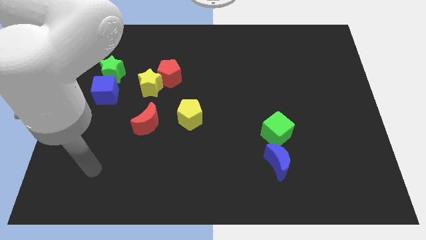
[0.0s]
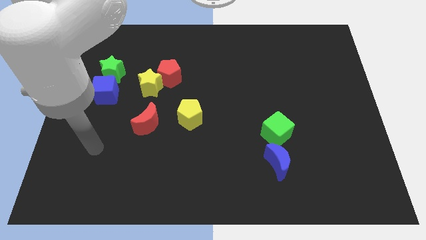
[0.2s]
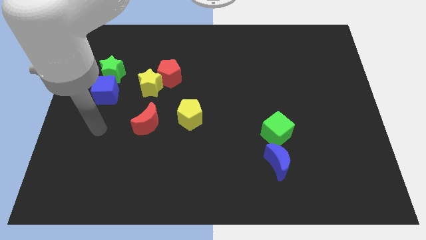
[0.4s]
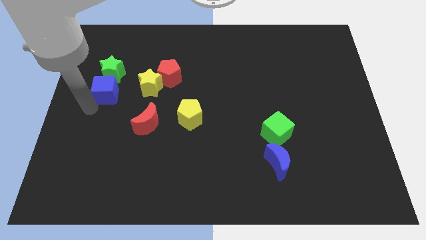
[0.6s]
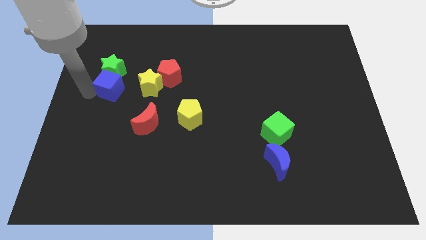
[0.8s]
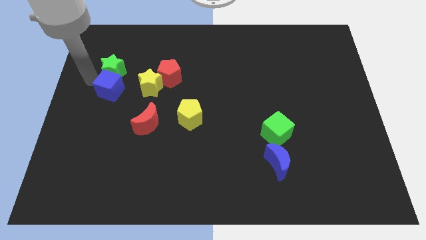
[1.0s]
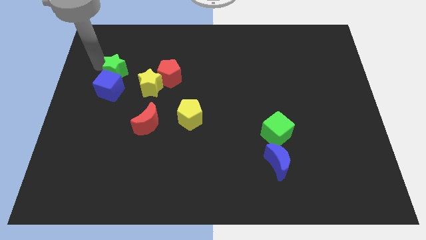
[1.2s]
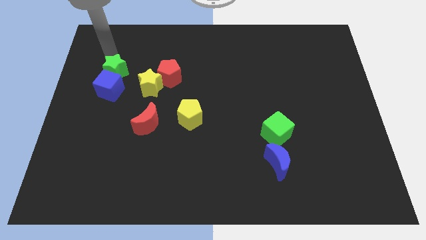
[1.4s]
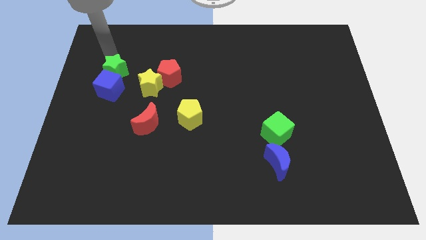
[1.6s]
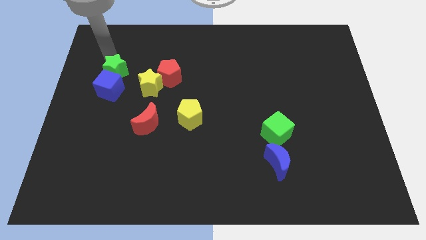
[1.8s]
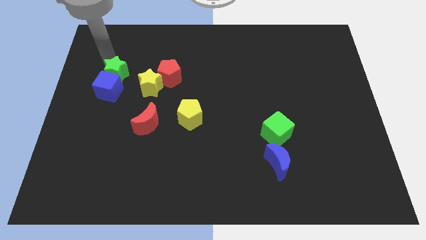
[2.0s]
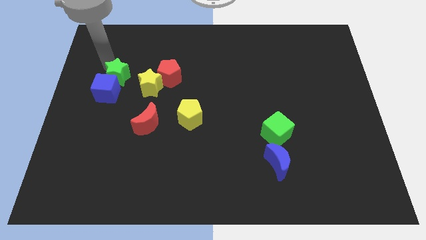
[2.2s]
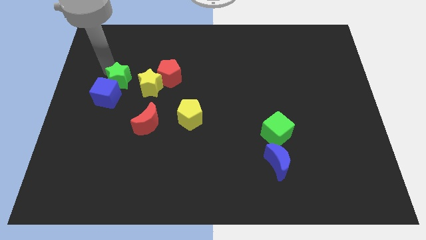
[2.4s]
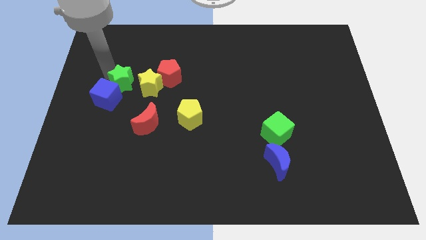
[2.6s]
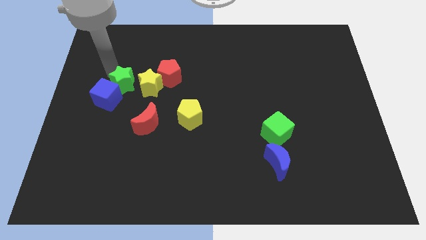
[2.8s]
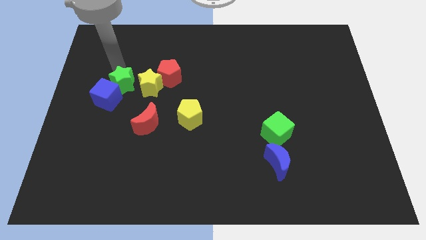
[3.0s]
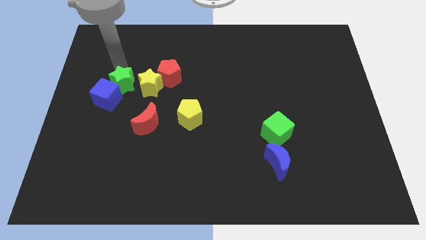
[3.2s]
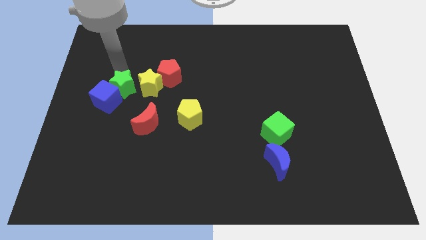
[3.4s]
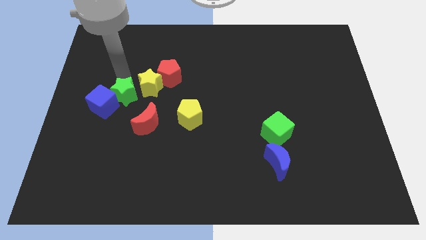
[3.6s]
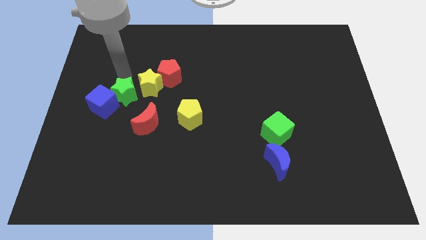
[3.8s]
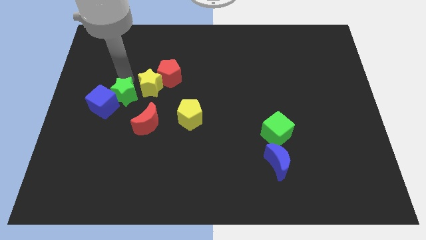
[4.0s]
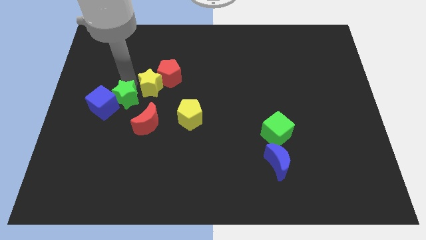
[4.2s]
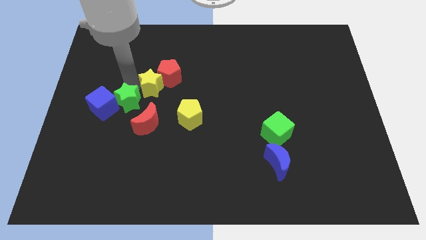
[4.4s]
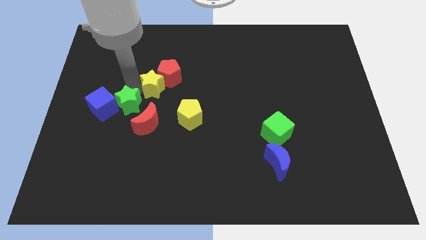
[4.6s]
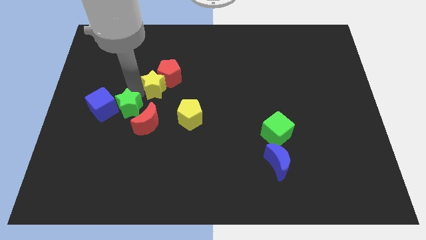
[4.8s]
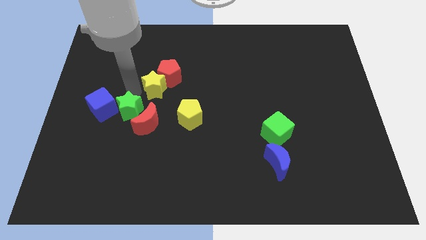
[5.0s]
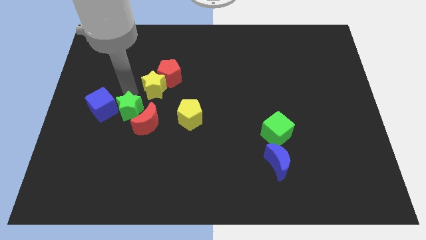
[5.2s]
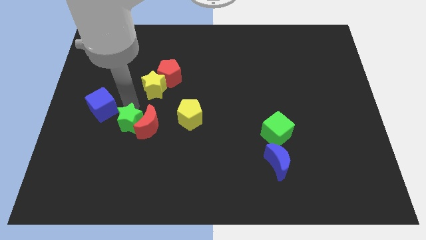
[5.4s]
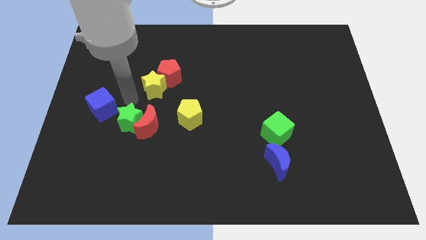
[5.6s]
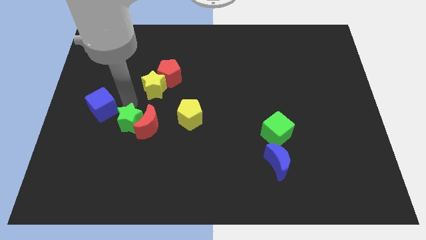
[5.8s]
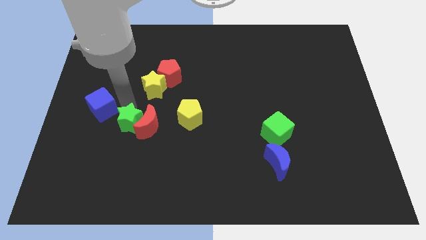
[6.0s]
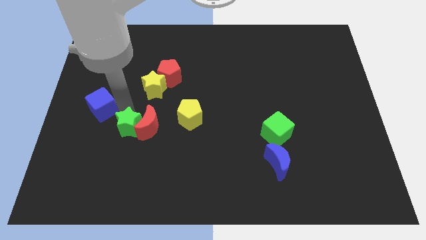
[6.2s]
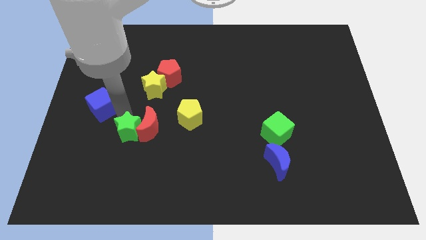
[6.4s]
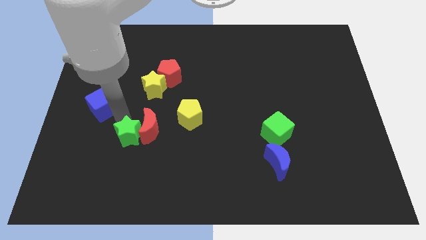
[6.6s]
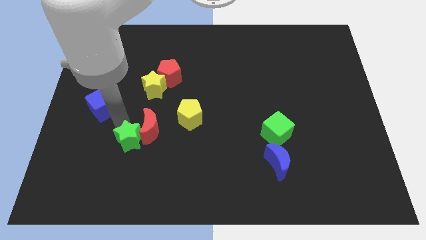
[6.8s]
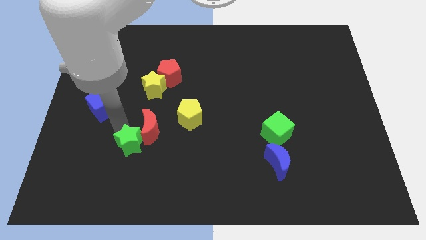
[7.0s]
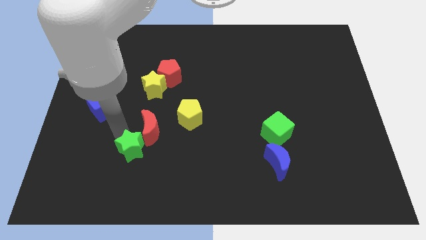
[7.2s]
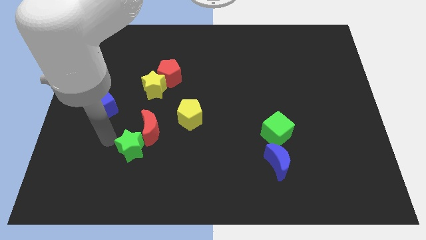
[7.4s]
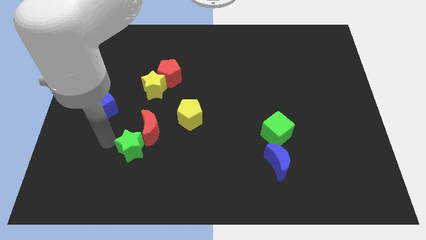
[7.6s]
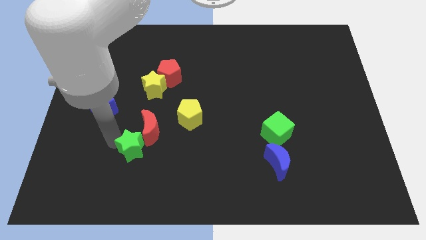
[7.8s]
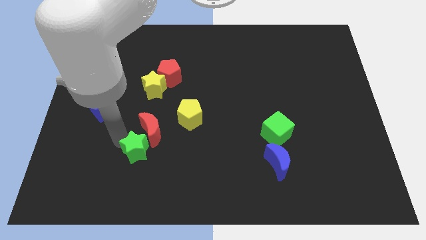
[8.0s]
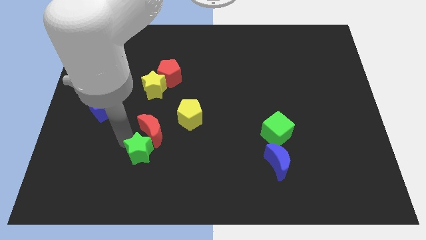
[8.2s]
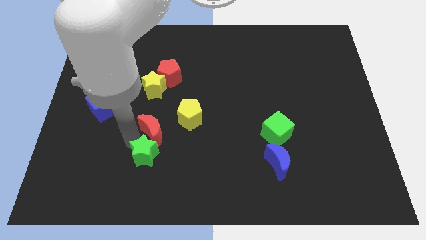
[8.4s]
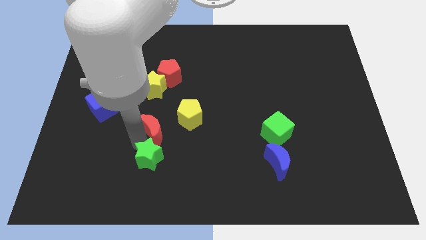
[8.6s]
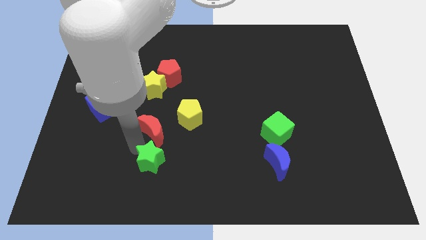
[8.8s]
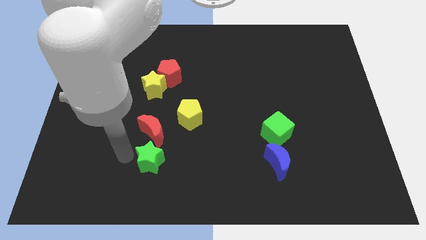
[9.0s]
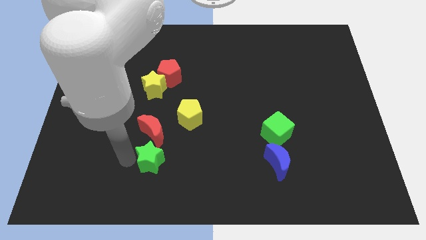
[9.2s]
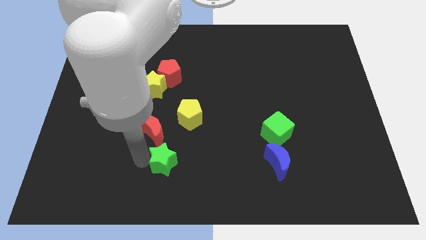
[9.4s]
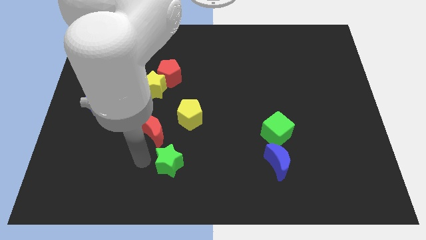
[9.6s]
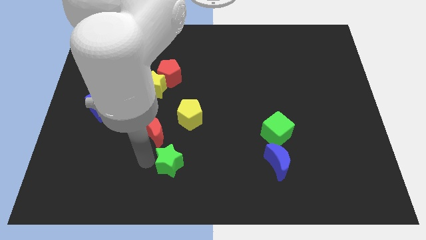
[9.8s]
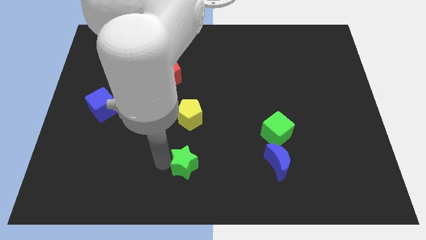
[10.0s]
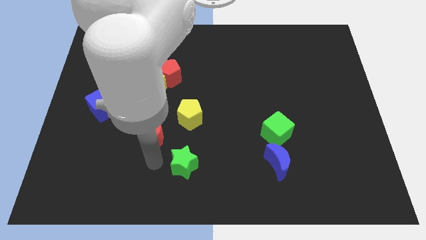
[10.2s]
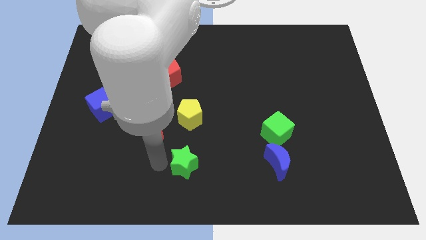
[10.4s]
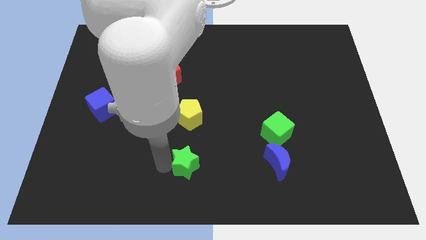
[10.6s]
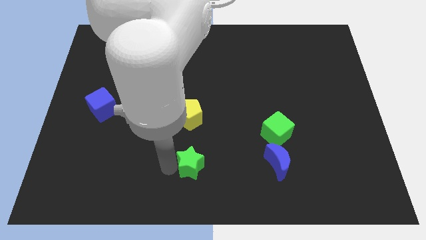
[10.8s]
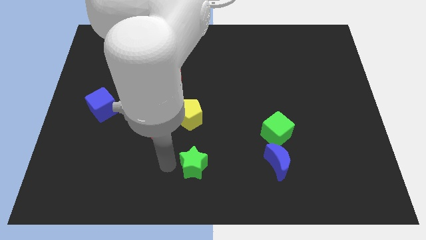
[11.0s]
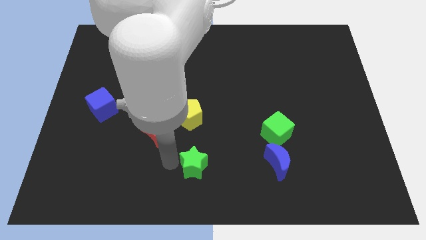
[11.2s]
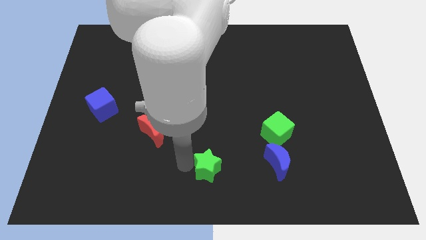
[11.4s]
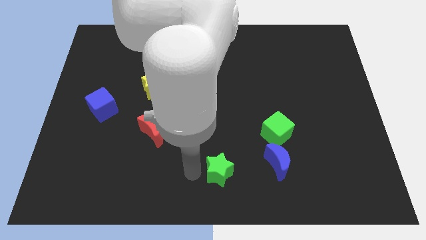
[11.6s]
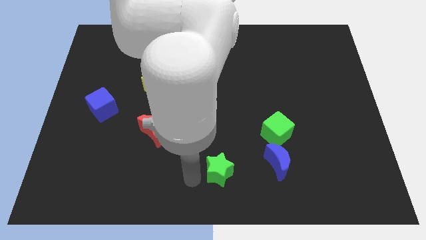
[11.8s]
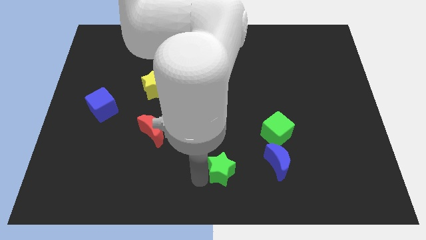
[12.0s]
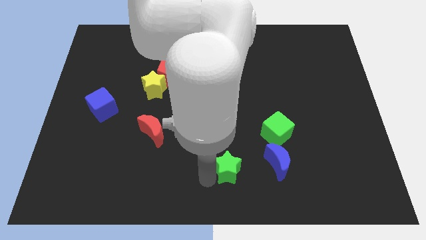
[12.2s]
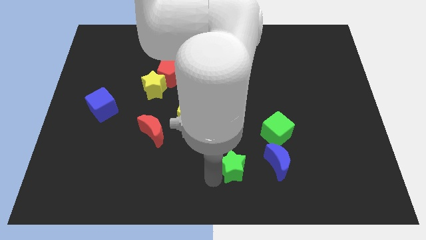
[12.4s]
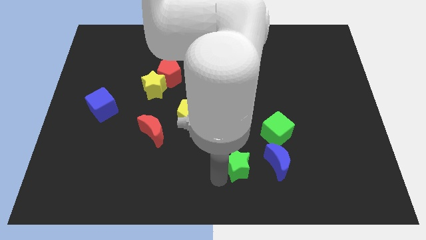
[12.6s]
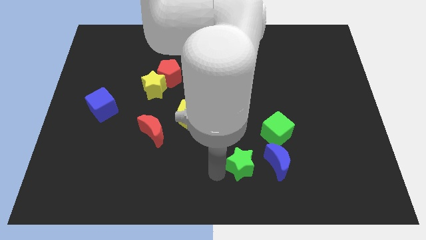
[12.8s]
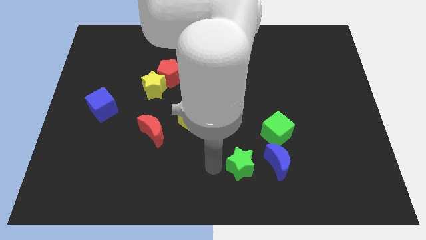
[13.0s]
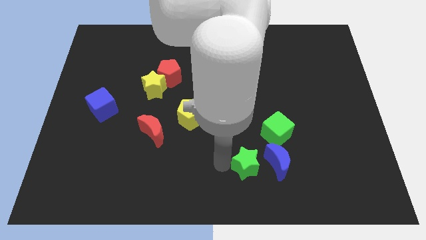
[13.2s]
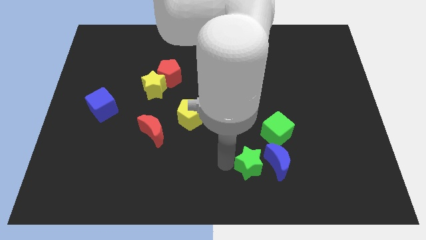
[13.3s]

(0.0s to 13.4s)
move the green star close to the blue moon

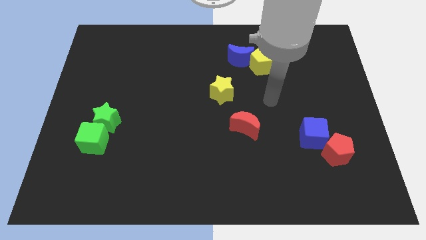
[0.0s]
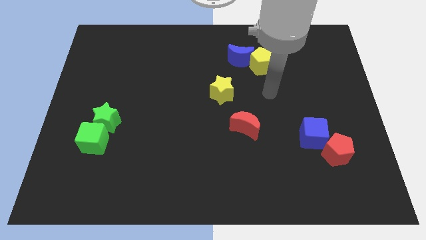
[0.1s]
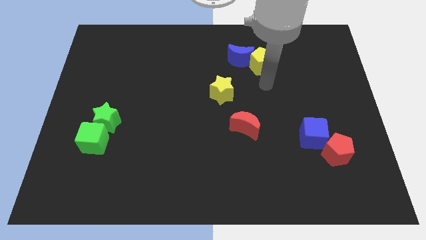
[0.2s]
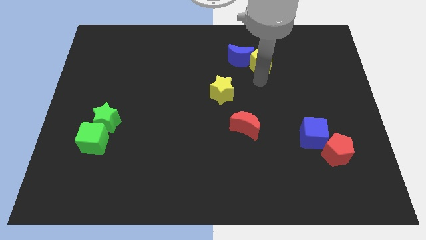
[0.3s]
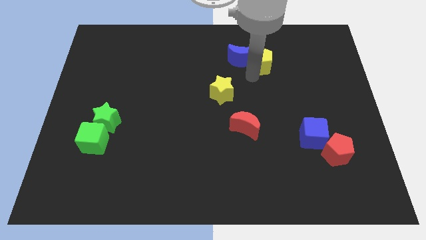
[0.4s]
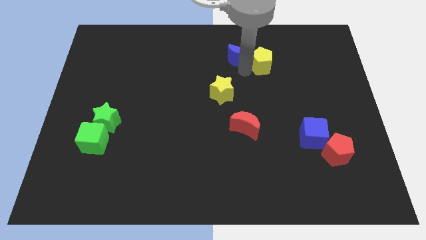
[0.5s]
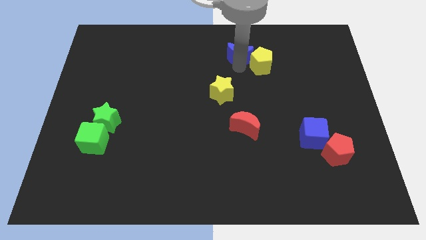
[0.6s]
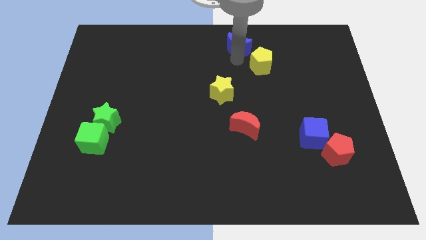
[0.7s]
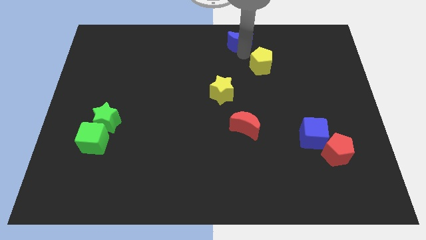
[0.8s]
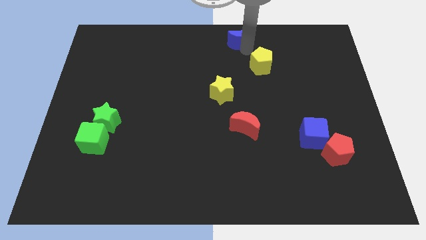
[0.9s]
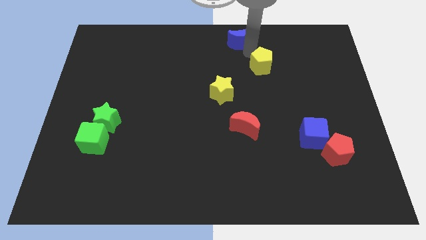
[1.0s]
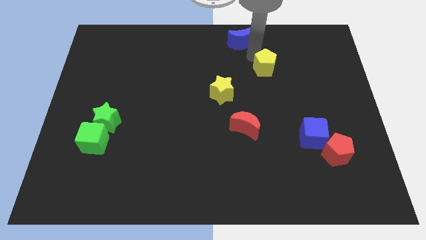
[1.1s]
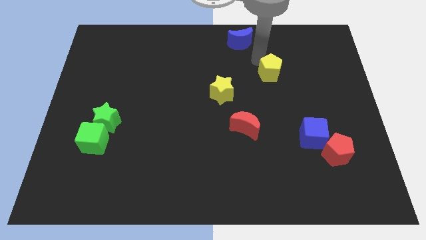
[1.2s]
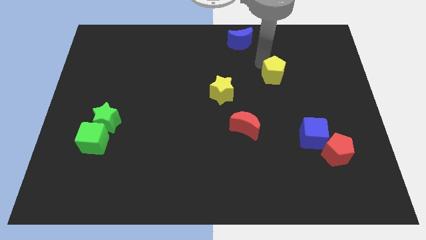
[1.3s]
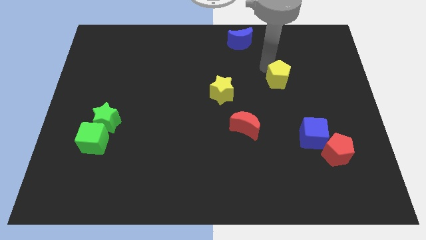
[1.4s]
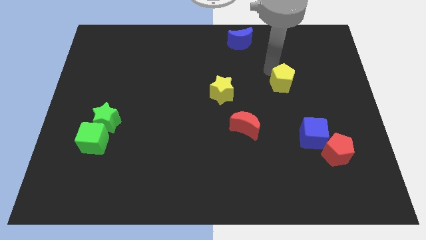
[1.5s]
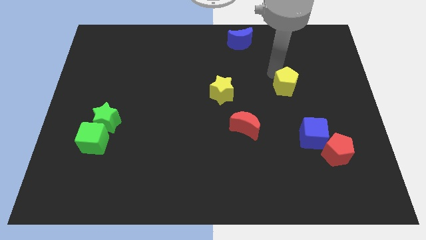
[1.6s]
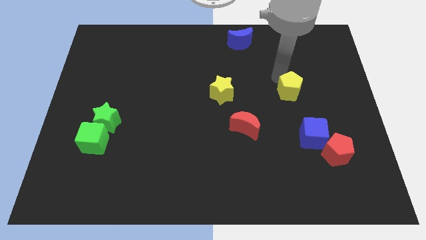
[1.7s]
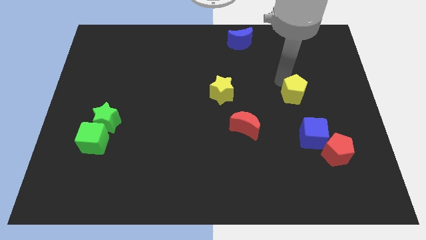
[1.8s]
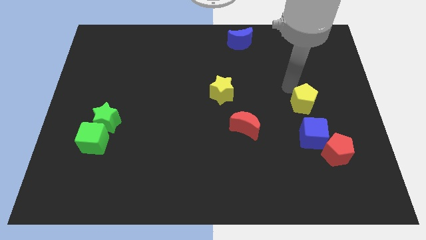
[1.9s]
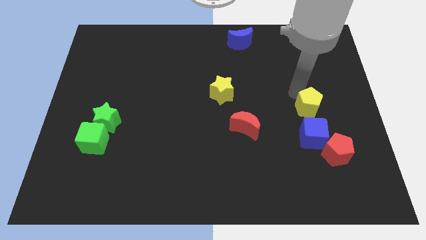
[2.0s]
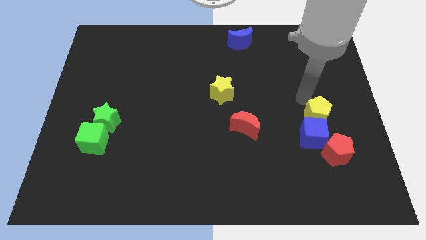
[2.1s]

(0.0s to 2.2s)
slide the yellow pentagon towards the blue cube
